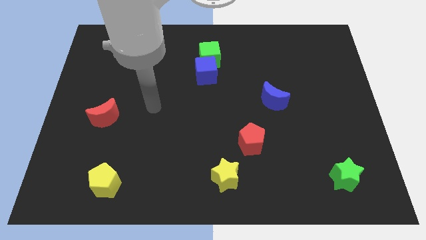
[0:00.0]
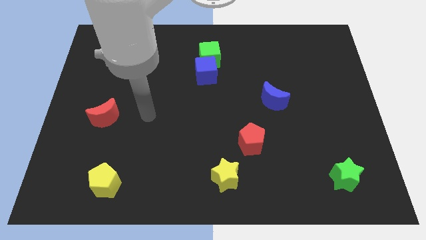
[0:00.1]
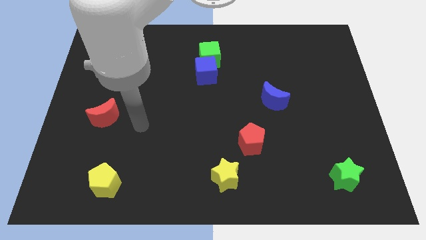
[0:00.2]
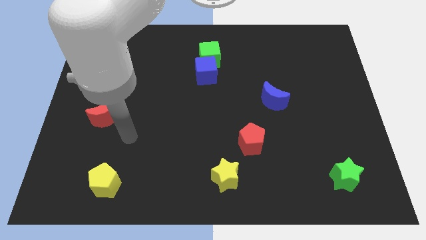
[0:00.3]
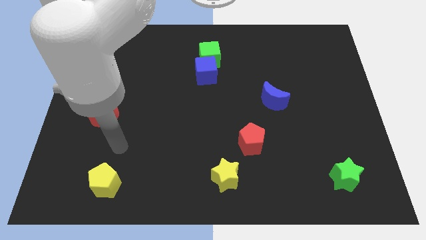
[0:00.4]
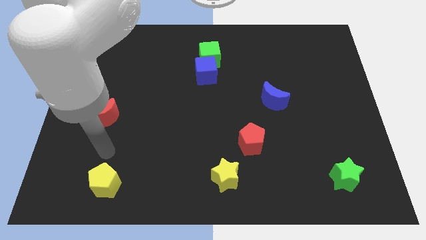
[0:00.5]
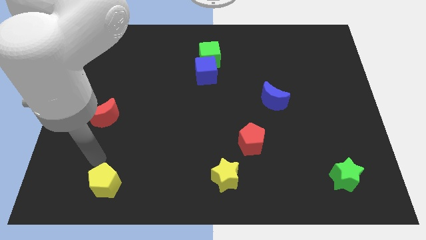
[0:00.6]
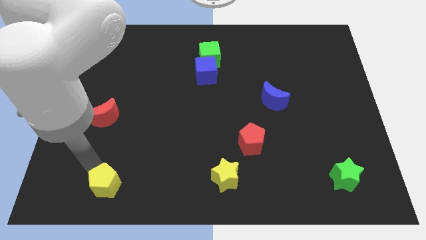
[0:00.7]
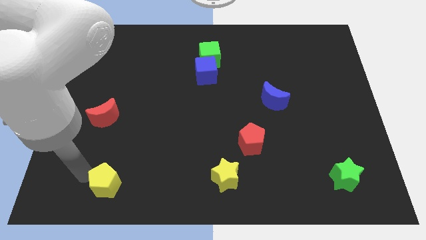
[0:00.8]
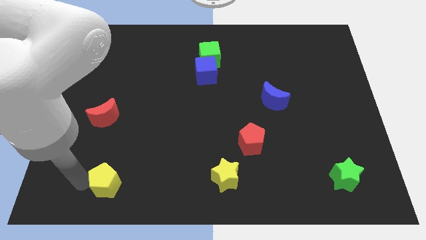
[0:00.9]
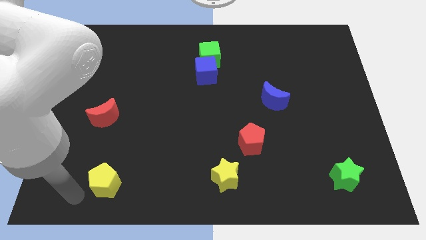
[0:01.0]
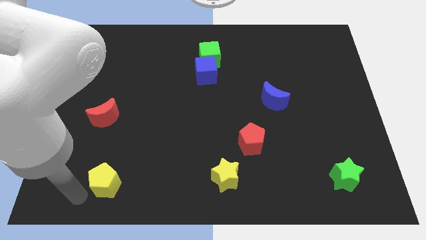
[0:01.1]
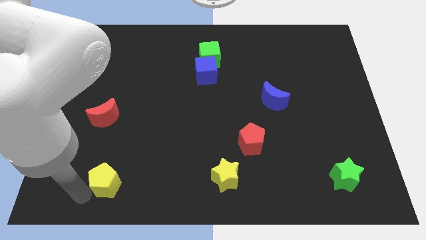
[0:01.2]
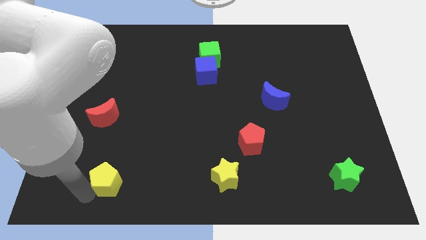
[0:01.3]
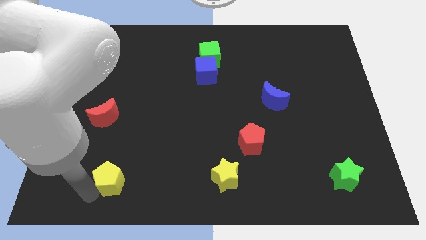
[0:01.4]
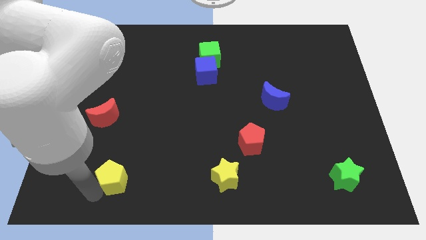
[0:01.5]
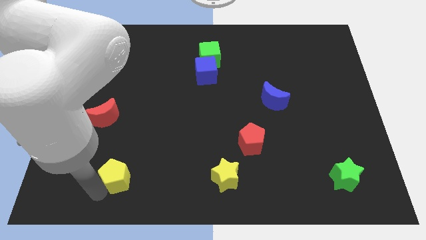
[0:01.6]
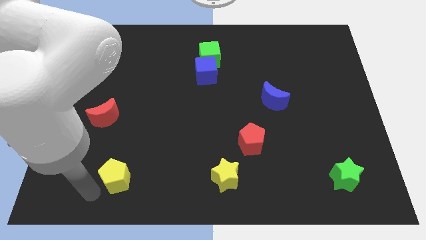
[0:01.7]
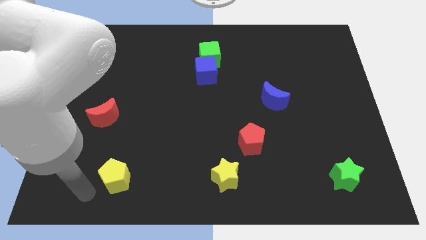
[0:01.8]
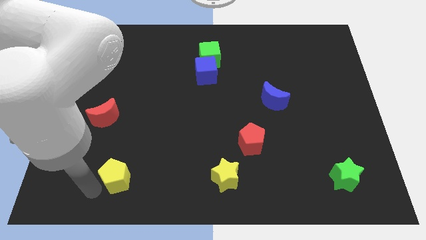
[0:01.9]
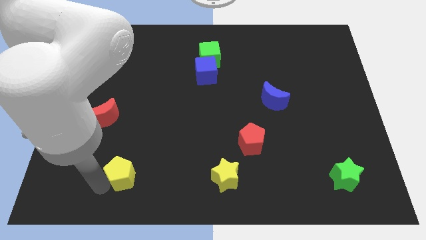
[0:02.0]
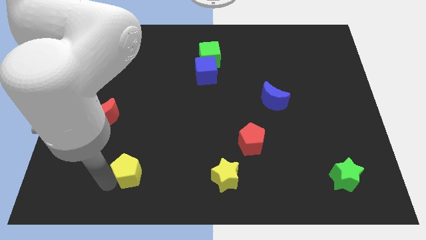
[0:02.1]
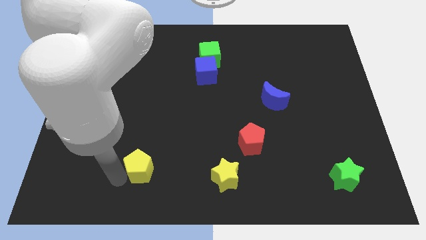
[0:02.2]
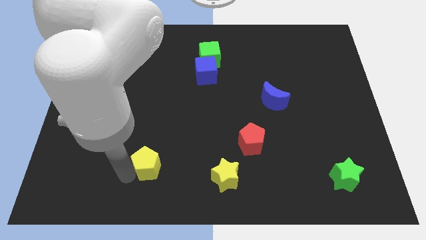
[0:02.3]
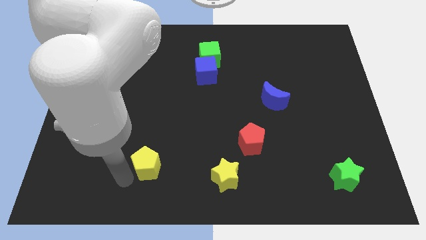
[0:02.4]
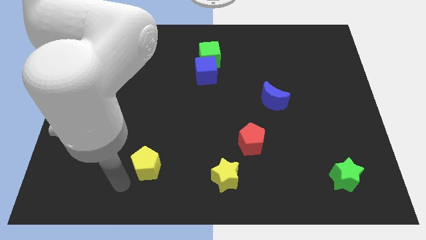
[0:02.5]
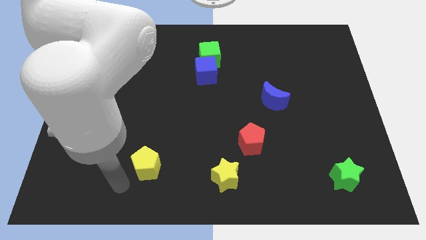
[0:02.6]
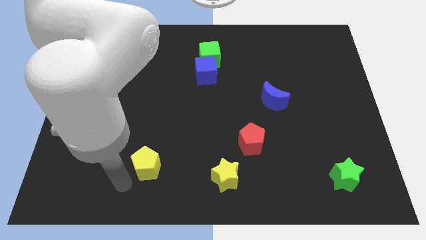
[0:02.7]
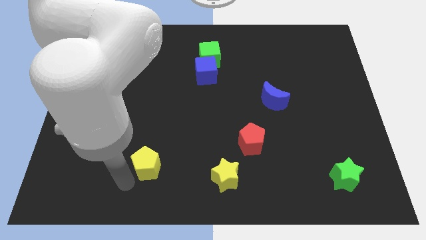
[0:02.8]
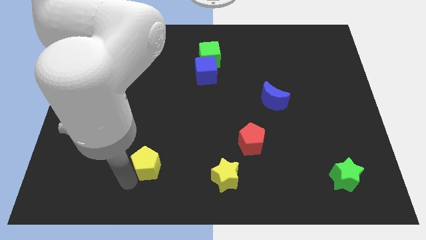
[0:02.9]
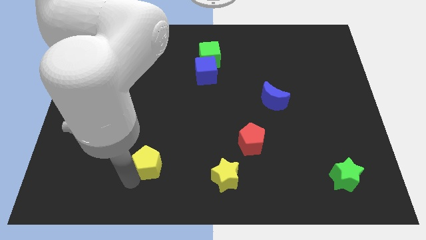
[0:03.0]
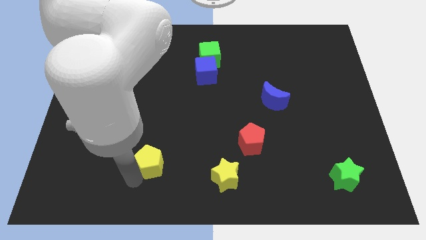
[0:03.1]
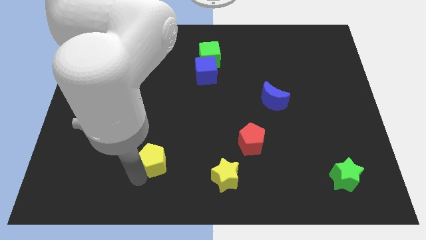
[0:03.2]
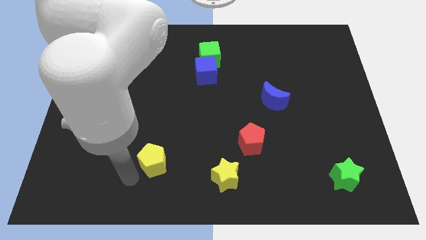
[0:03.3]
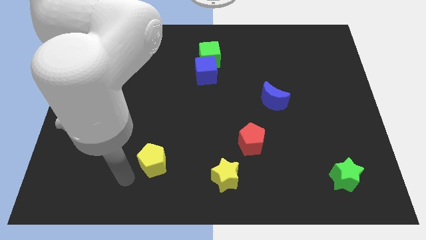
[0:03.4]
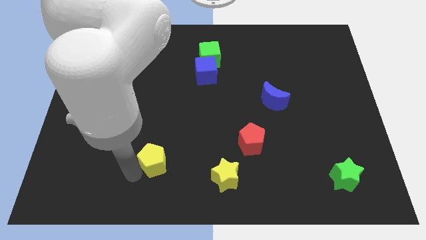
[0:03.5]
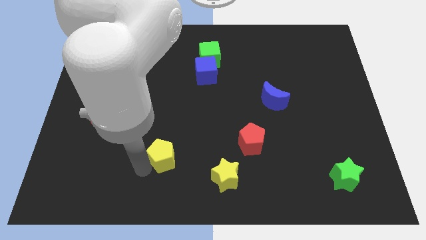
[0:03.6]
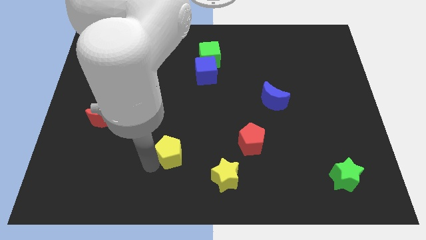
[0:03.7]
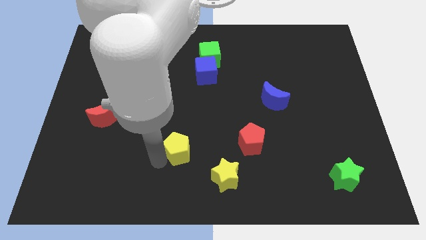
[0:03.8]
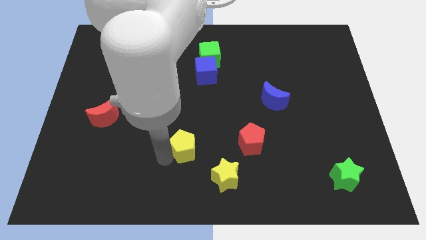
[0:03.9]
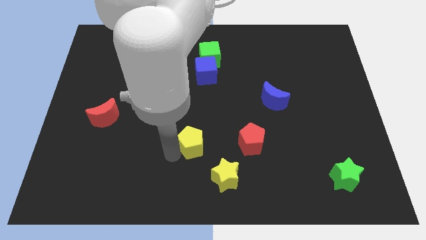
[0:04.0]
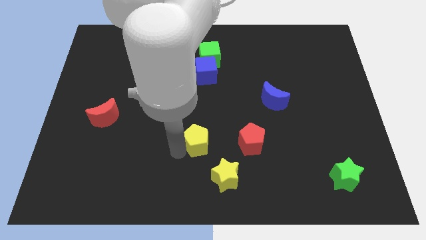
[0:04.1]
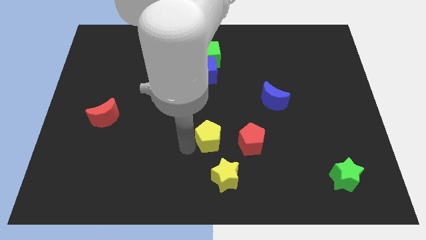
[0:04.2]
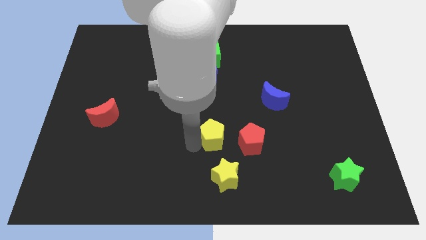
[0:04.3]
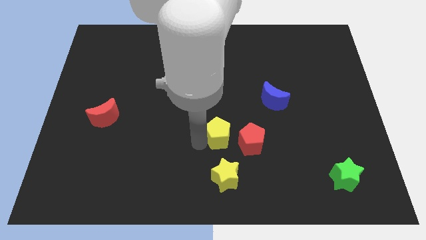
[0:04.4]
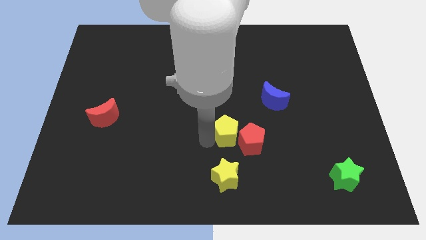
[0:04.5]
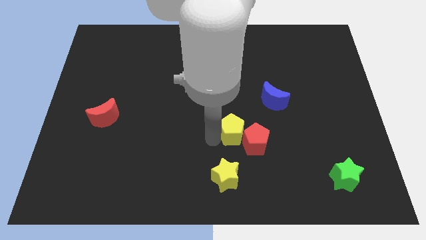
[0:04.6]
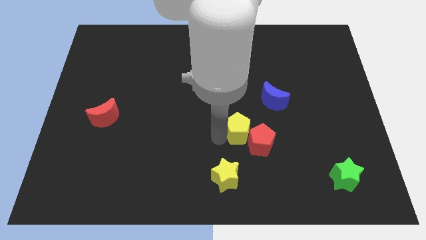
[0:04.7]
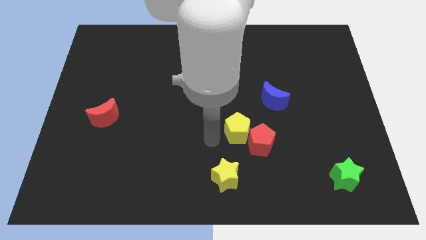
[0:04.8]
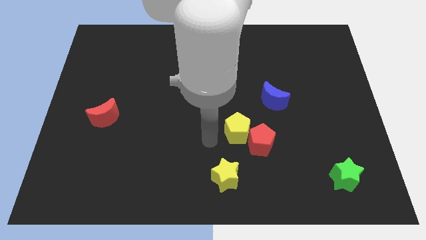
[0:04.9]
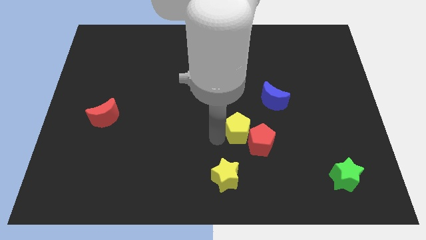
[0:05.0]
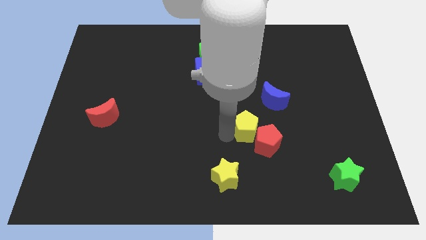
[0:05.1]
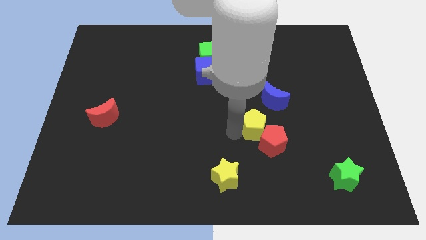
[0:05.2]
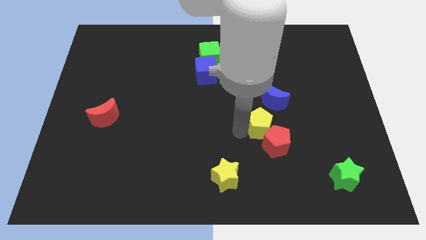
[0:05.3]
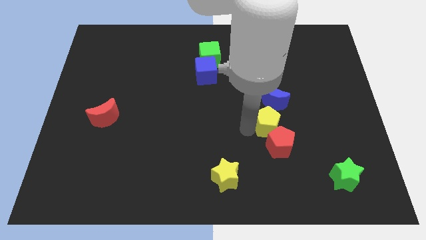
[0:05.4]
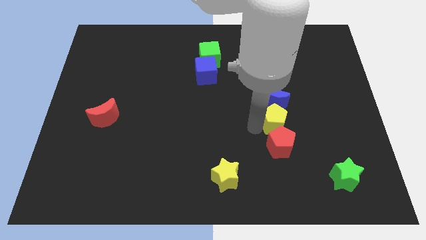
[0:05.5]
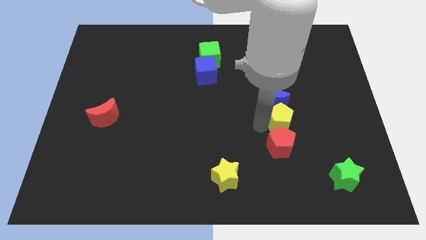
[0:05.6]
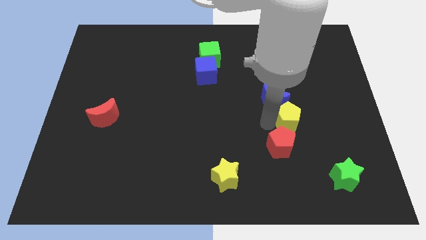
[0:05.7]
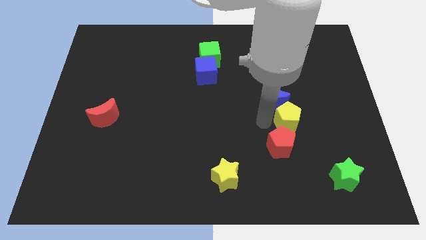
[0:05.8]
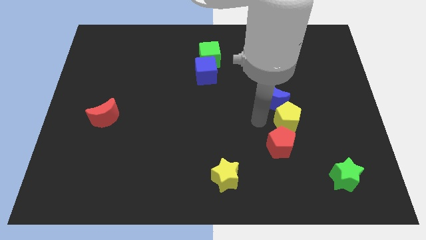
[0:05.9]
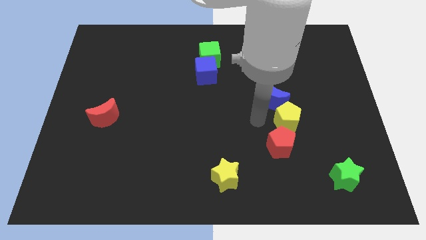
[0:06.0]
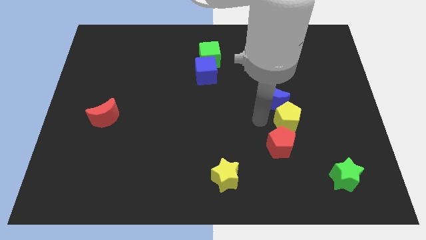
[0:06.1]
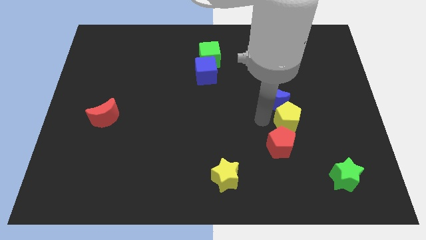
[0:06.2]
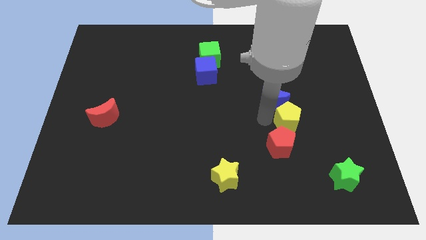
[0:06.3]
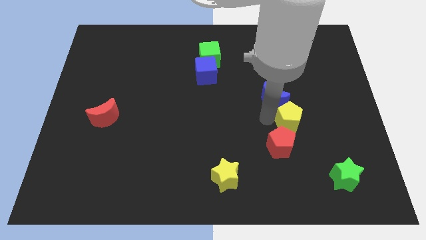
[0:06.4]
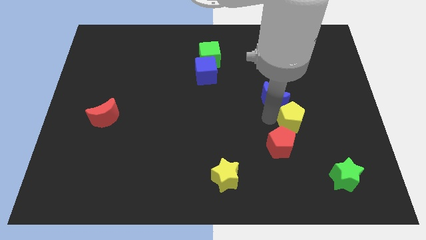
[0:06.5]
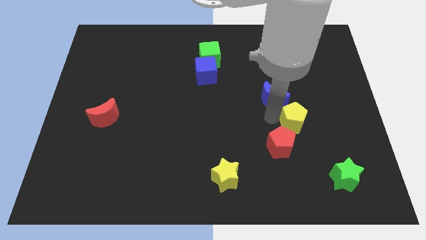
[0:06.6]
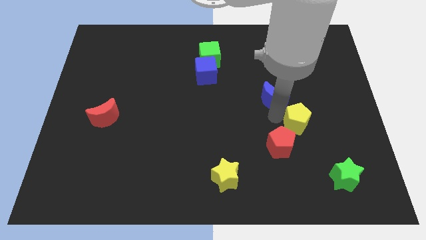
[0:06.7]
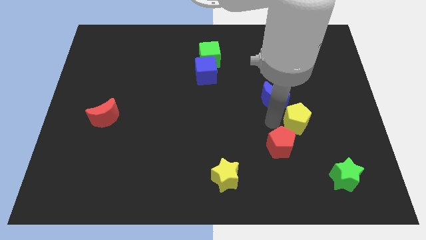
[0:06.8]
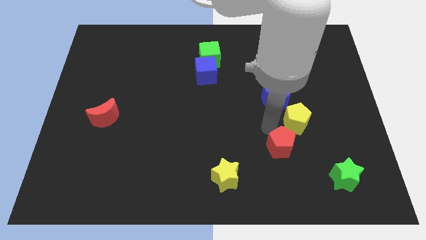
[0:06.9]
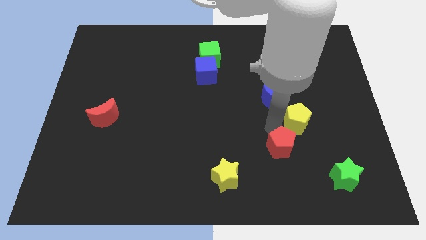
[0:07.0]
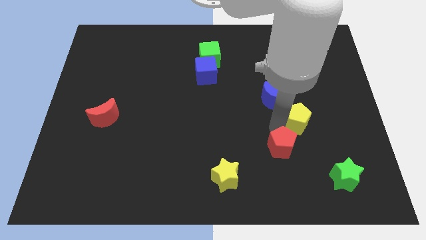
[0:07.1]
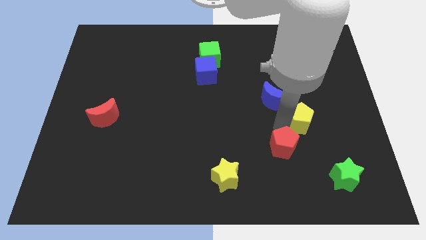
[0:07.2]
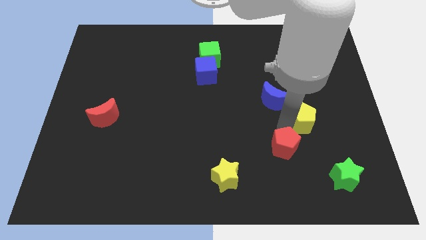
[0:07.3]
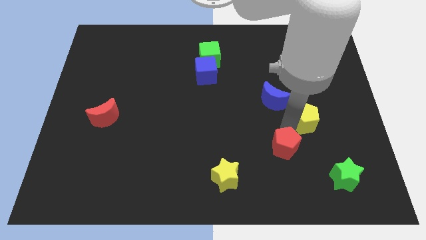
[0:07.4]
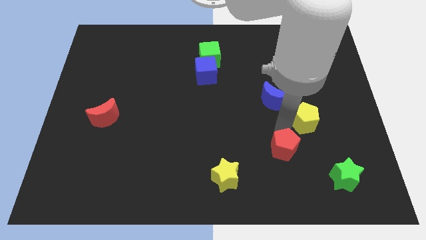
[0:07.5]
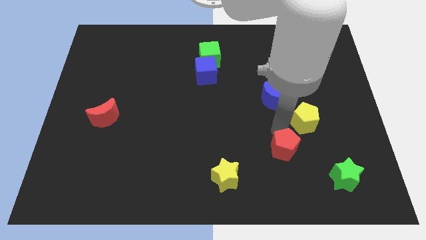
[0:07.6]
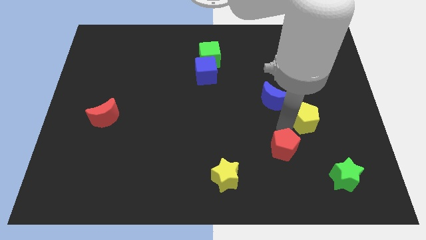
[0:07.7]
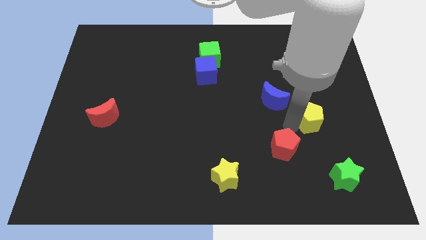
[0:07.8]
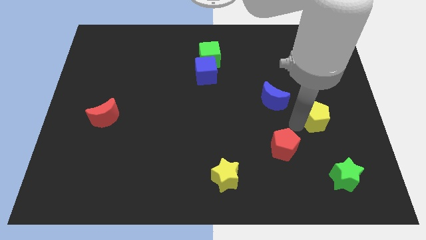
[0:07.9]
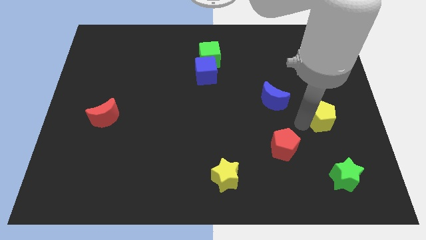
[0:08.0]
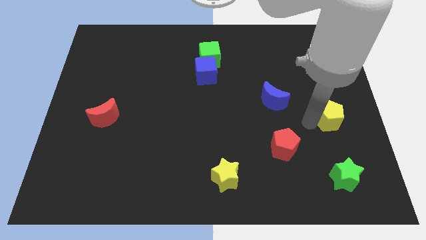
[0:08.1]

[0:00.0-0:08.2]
move the yellow pentagon to the center right
